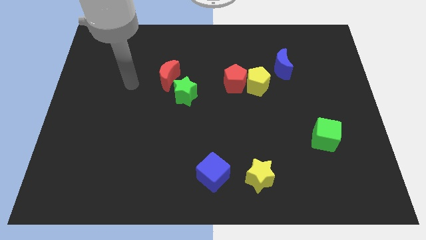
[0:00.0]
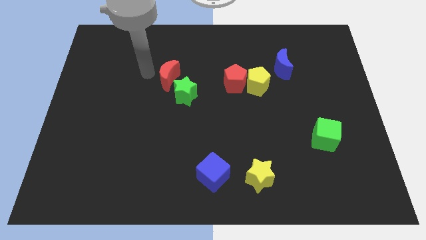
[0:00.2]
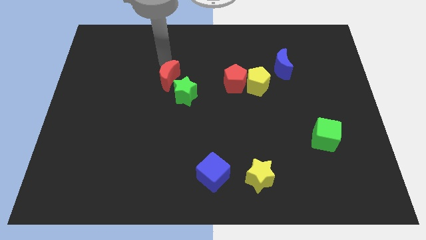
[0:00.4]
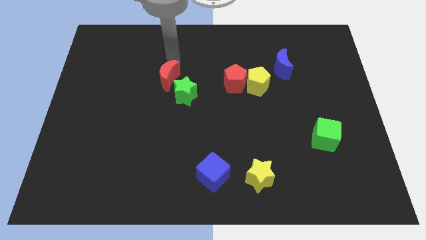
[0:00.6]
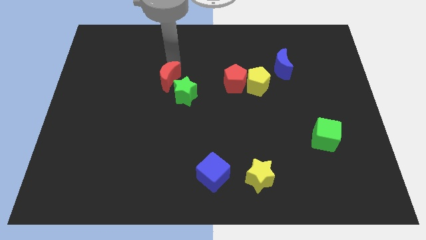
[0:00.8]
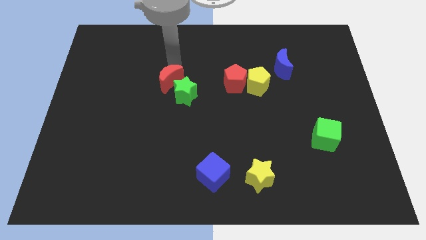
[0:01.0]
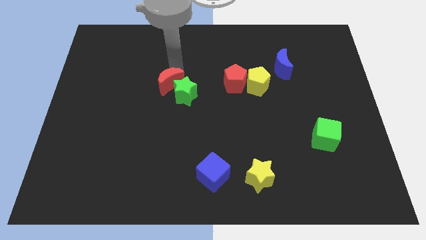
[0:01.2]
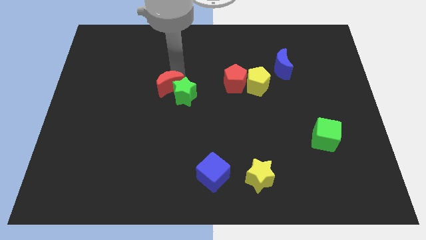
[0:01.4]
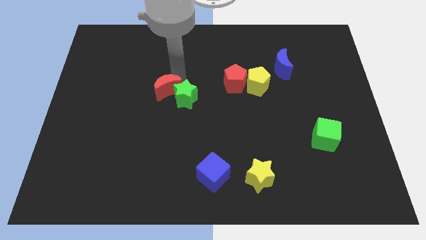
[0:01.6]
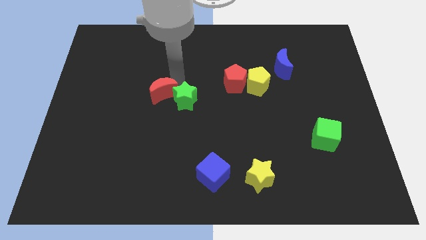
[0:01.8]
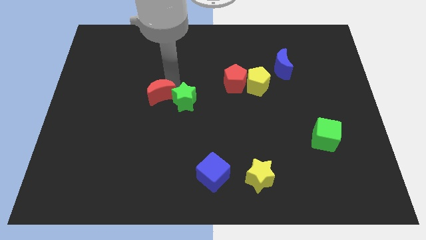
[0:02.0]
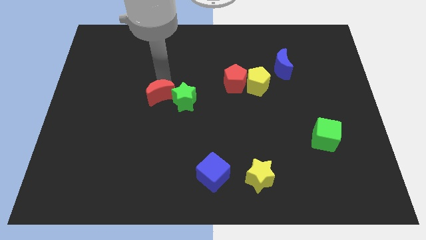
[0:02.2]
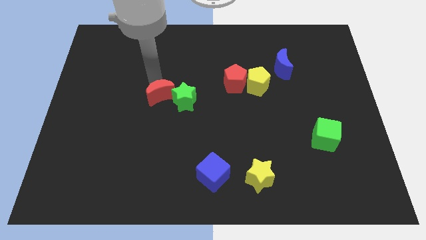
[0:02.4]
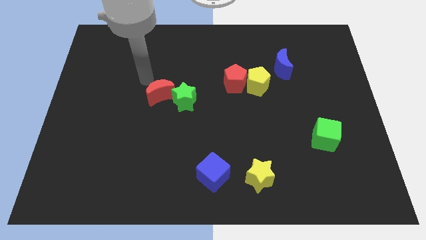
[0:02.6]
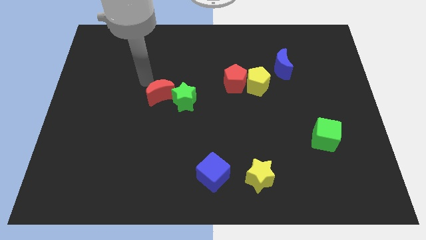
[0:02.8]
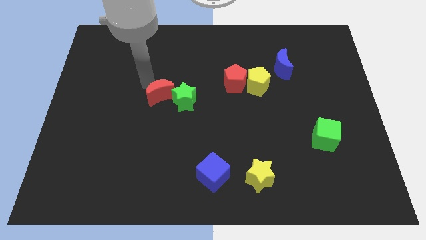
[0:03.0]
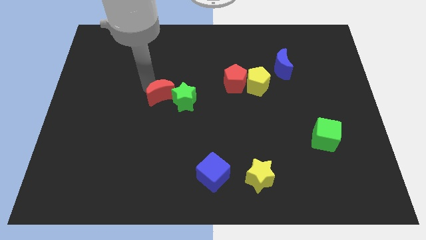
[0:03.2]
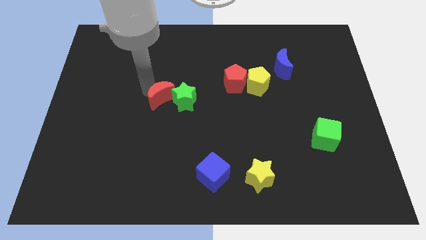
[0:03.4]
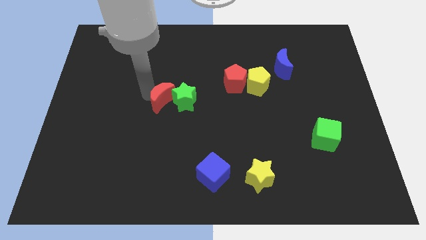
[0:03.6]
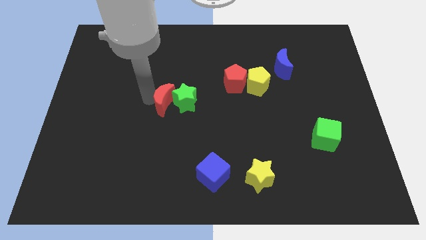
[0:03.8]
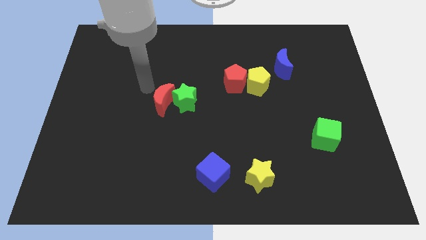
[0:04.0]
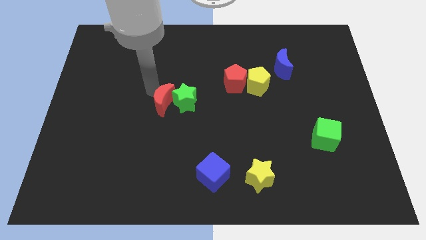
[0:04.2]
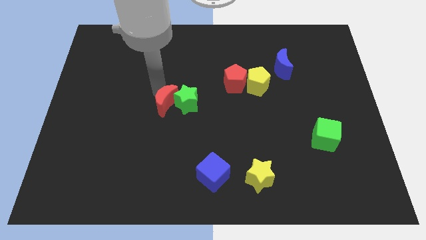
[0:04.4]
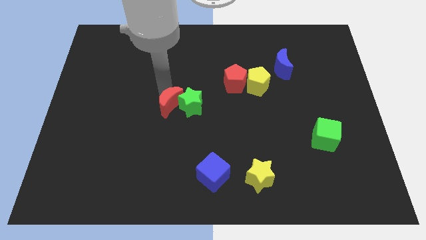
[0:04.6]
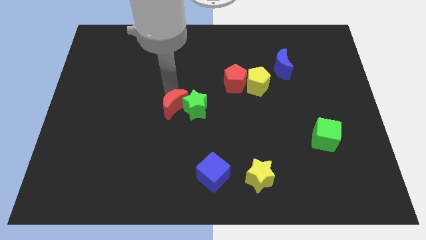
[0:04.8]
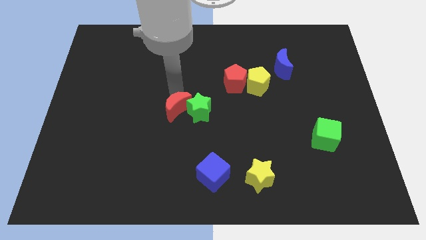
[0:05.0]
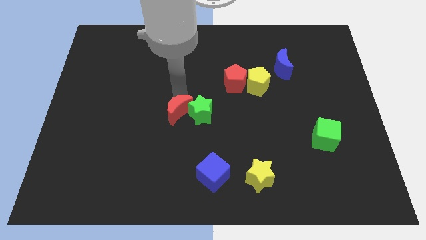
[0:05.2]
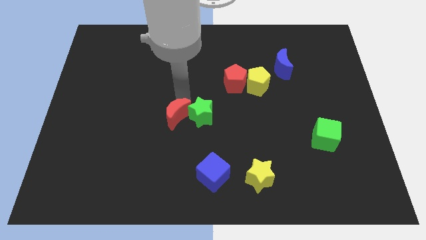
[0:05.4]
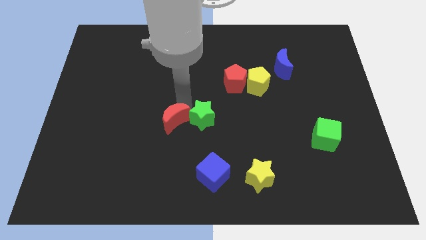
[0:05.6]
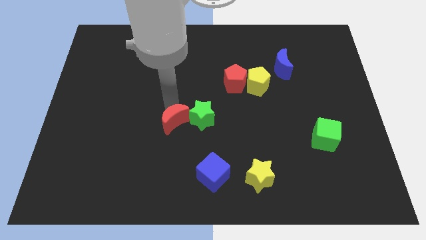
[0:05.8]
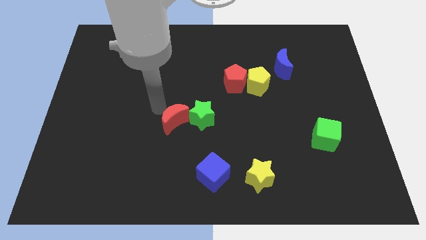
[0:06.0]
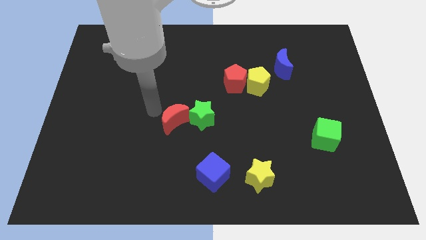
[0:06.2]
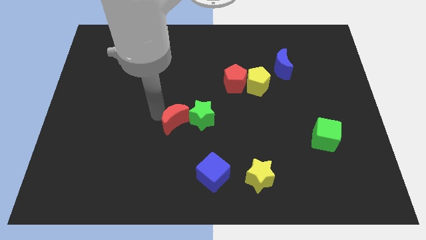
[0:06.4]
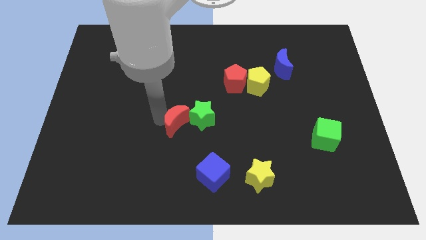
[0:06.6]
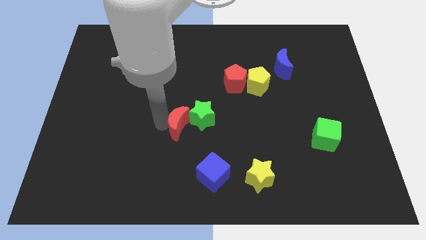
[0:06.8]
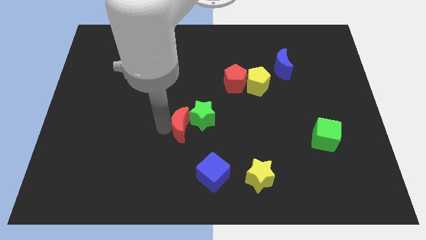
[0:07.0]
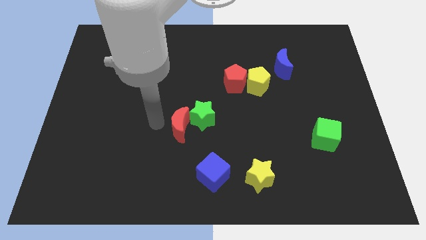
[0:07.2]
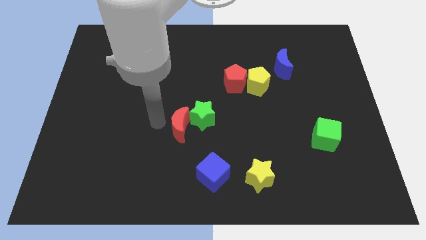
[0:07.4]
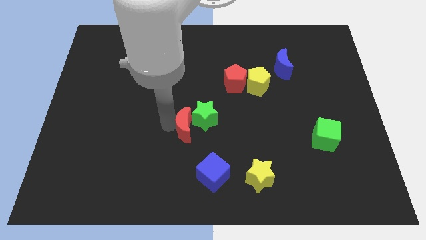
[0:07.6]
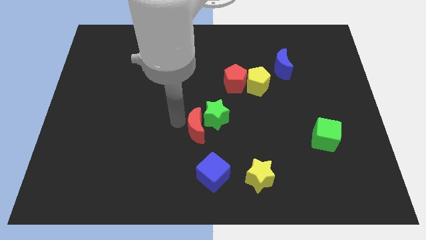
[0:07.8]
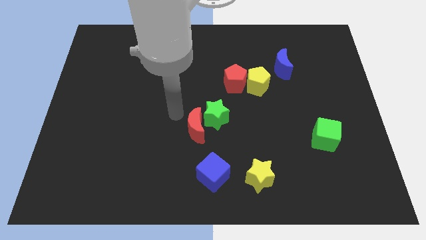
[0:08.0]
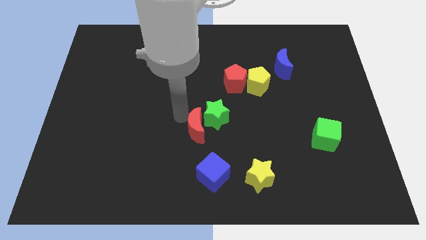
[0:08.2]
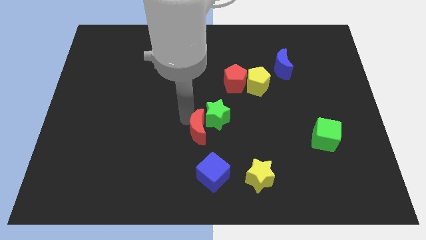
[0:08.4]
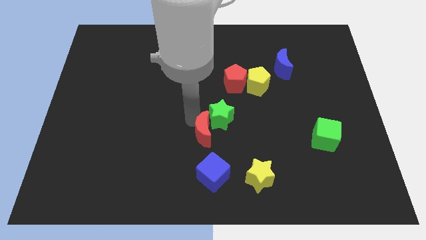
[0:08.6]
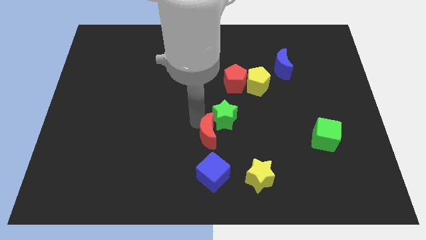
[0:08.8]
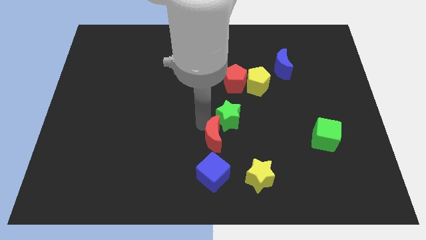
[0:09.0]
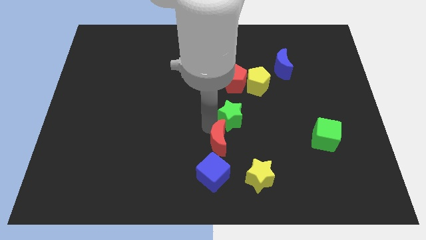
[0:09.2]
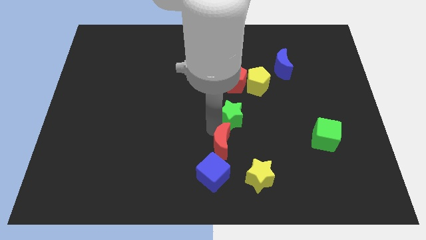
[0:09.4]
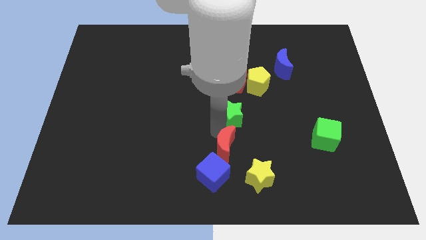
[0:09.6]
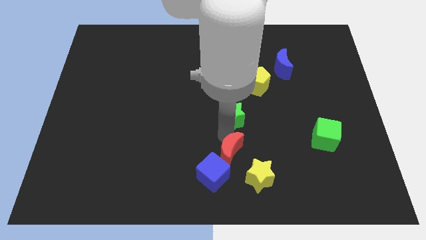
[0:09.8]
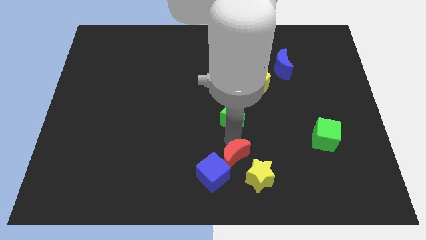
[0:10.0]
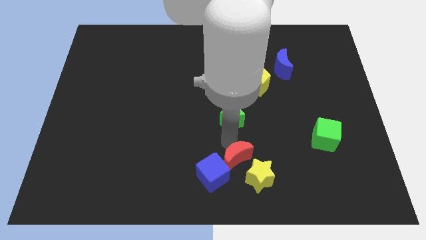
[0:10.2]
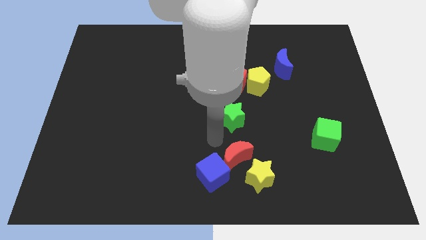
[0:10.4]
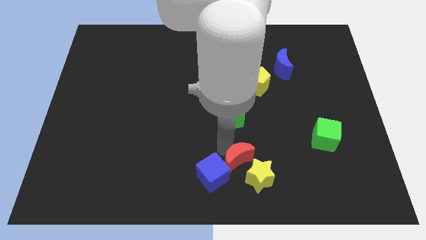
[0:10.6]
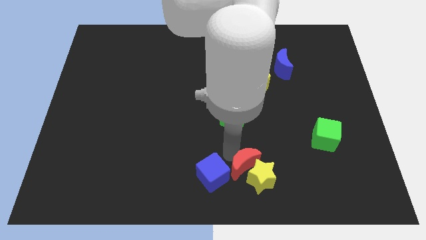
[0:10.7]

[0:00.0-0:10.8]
put the red moon close to the yellow star

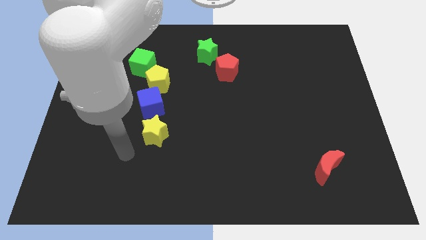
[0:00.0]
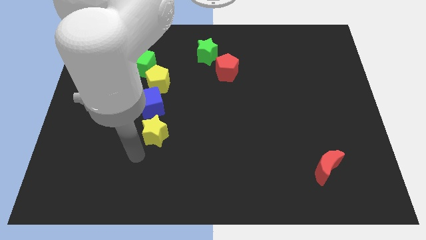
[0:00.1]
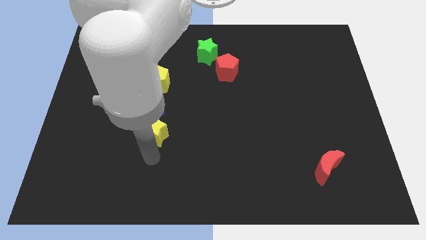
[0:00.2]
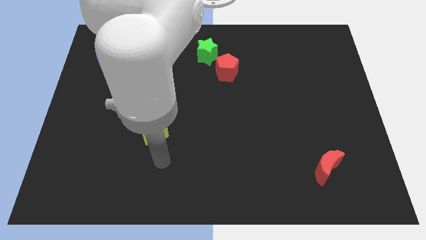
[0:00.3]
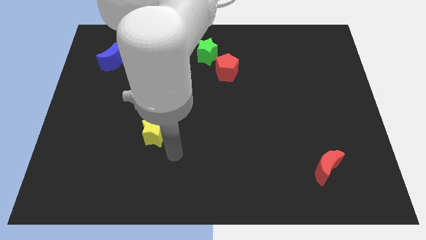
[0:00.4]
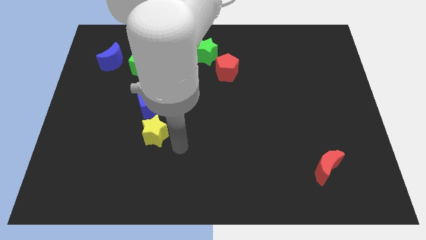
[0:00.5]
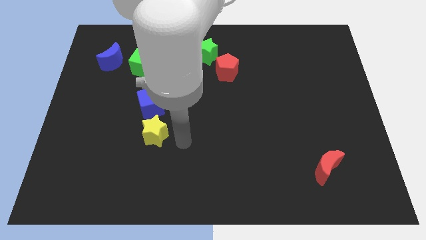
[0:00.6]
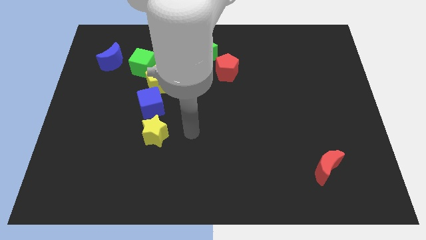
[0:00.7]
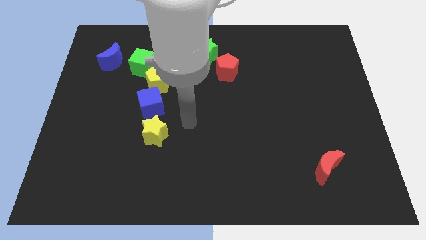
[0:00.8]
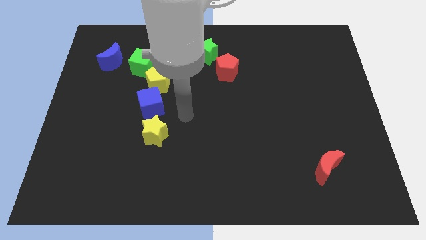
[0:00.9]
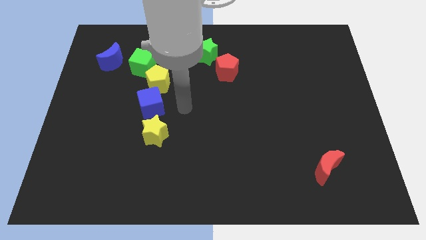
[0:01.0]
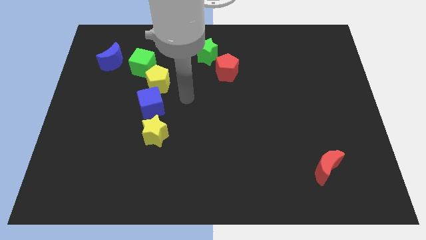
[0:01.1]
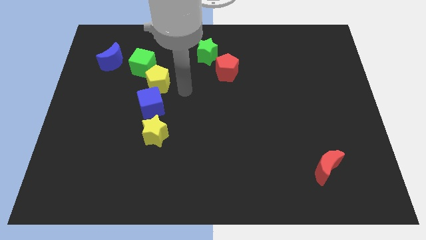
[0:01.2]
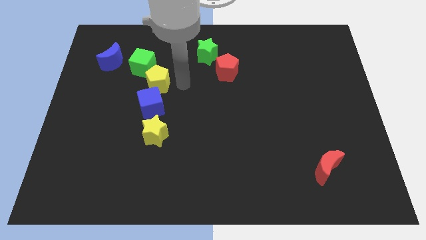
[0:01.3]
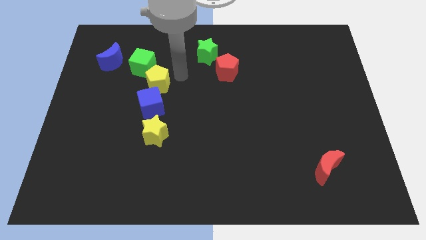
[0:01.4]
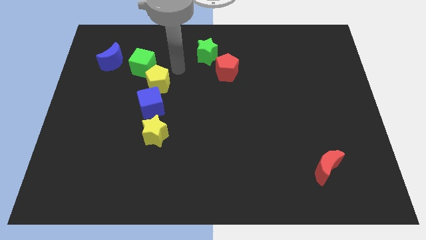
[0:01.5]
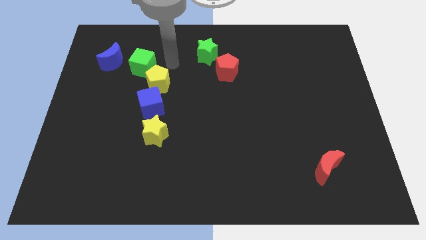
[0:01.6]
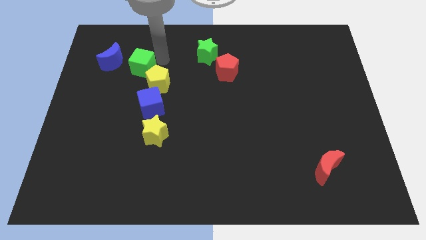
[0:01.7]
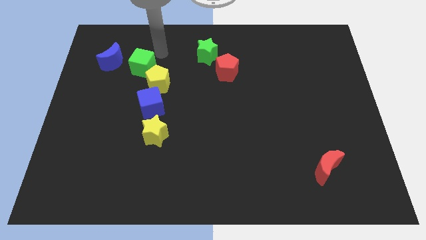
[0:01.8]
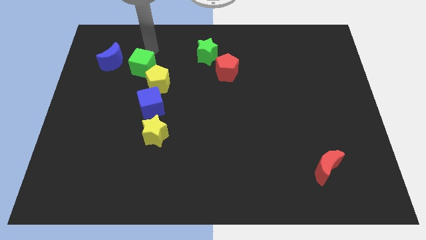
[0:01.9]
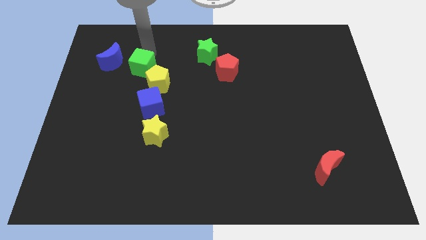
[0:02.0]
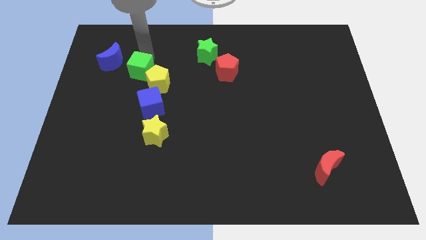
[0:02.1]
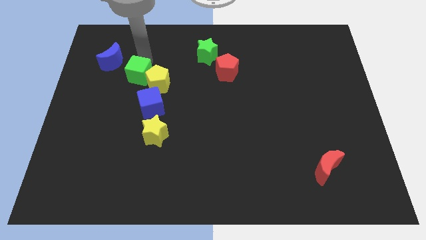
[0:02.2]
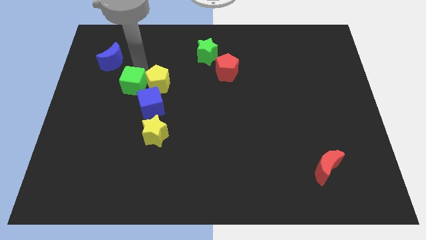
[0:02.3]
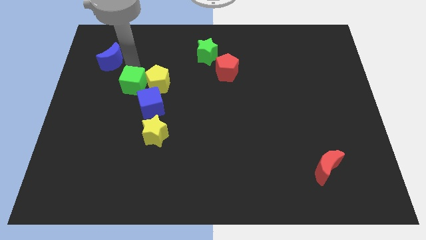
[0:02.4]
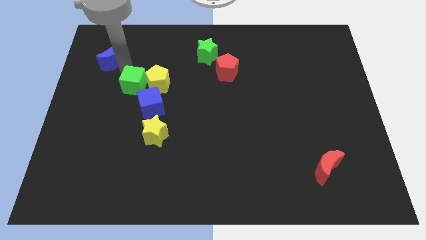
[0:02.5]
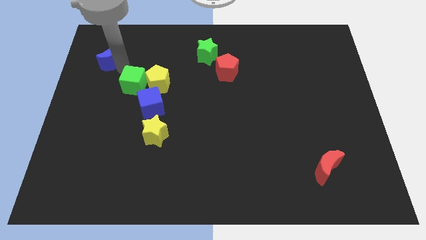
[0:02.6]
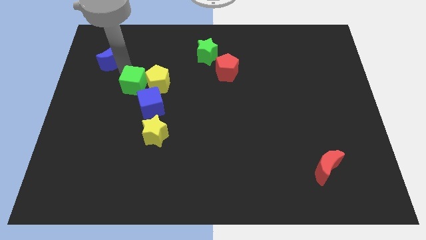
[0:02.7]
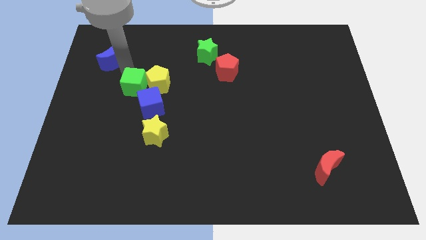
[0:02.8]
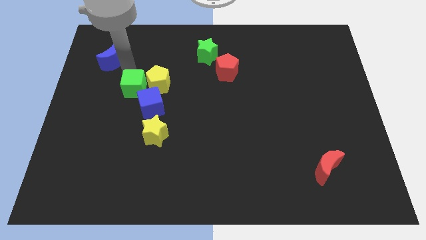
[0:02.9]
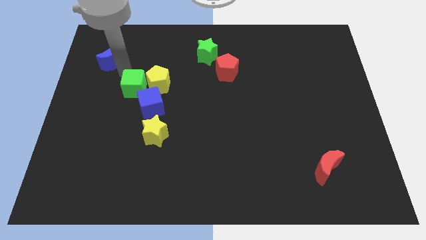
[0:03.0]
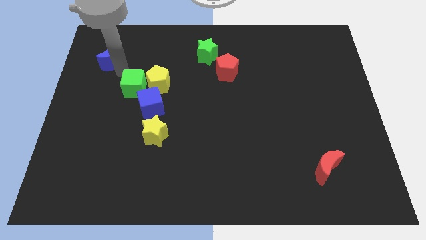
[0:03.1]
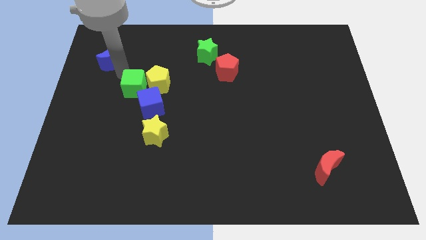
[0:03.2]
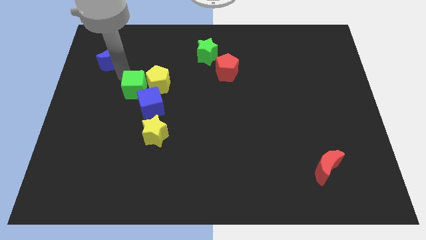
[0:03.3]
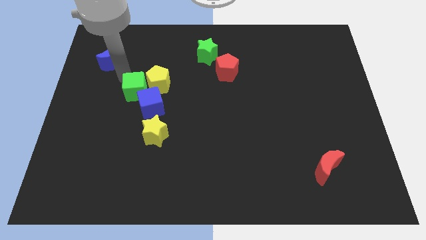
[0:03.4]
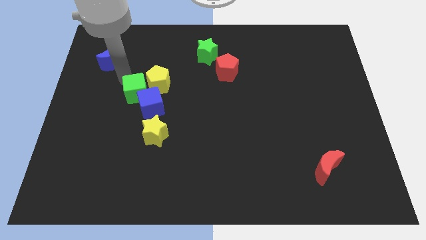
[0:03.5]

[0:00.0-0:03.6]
move the green cube to the blue cube
